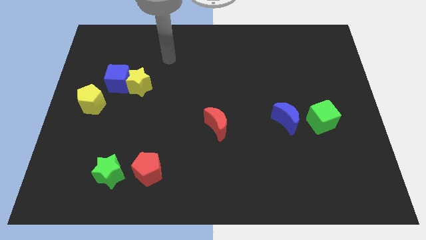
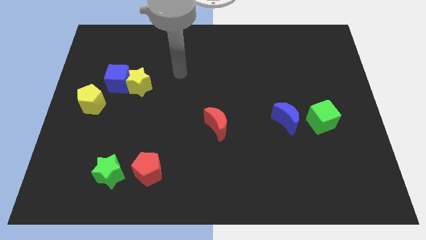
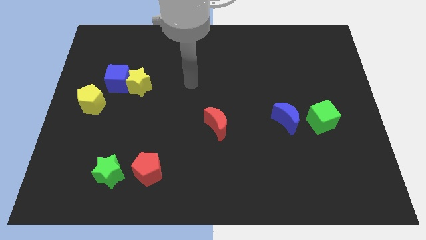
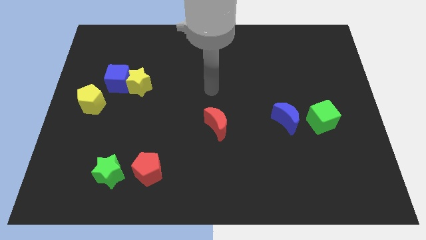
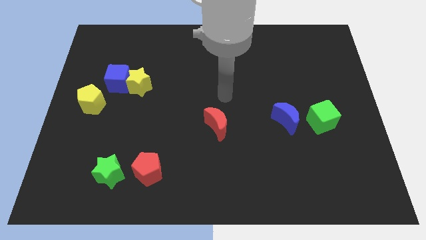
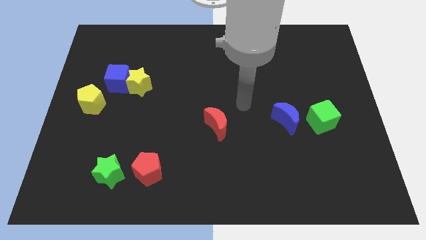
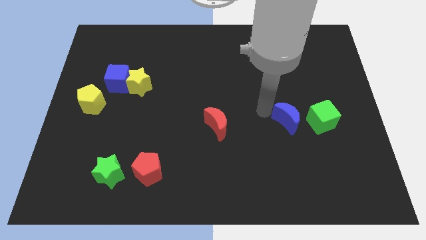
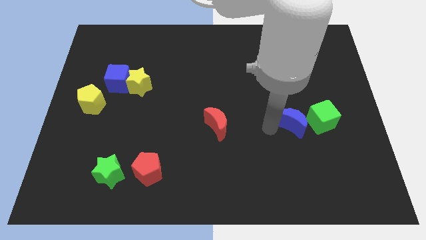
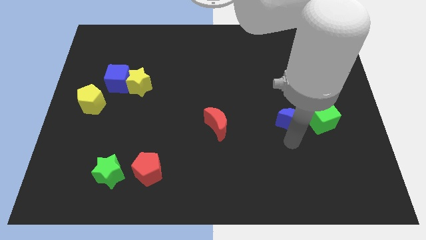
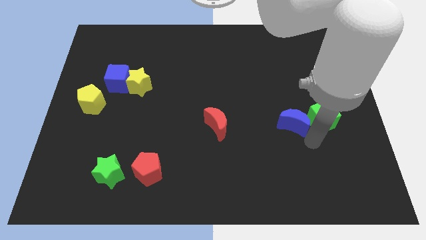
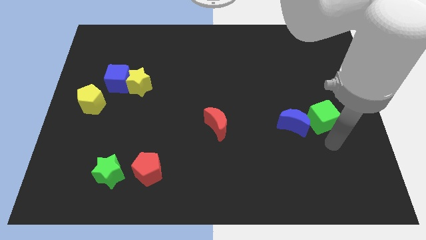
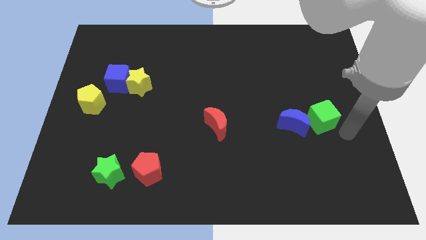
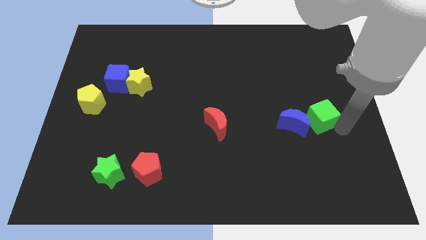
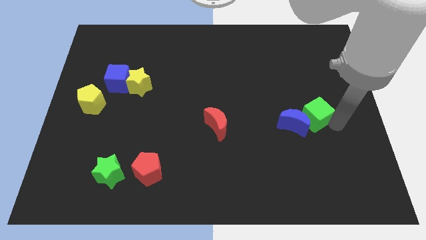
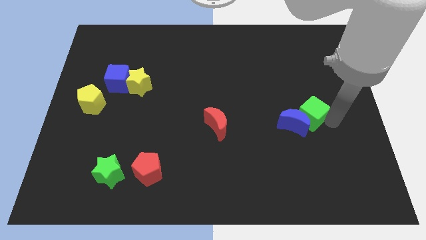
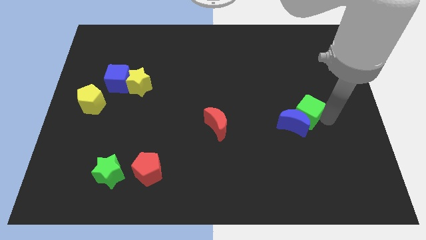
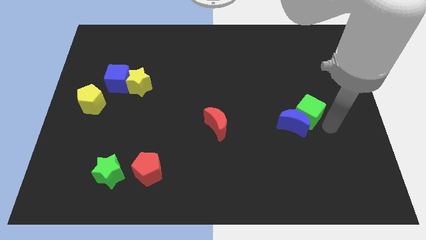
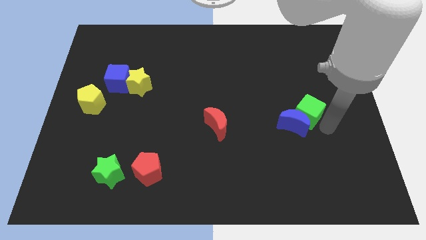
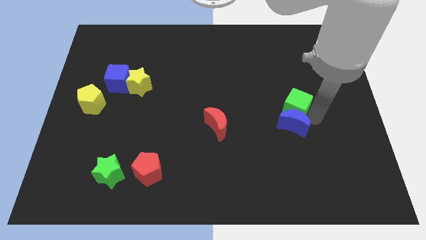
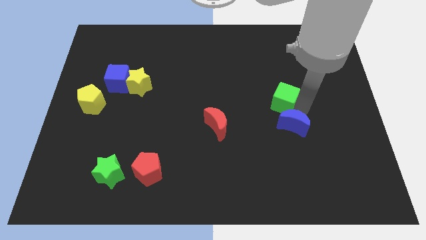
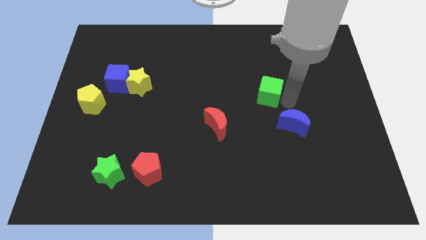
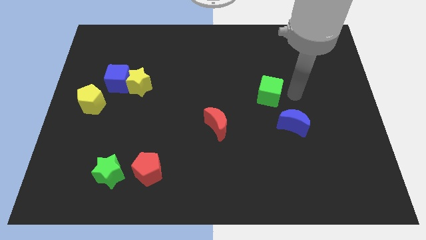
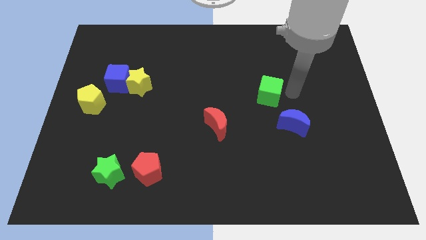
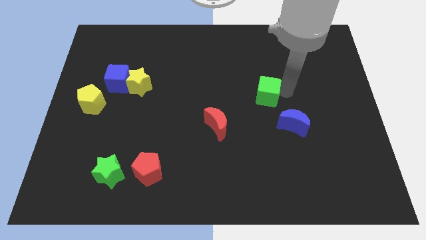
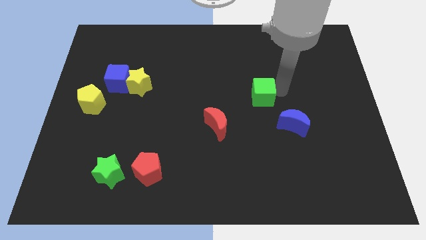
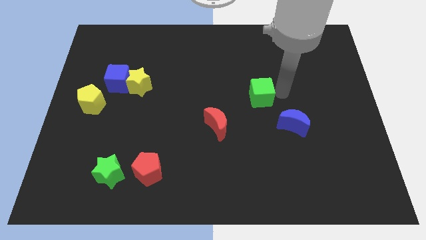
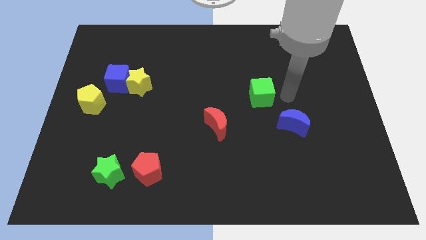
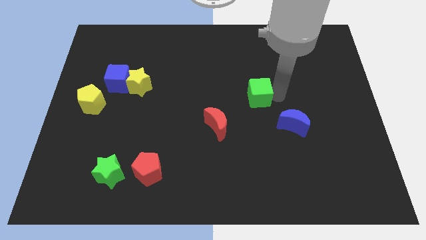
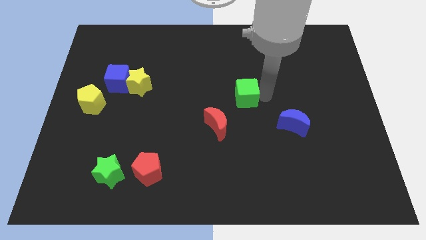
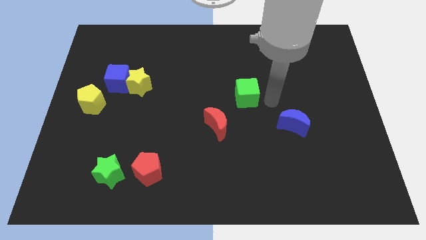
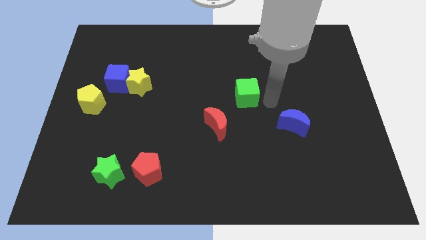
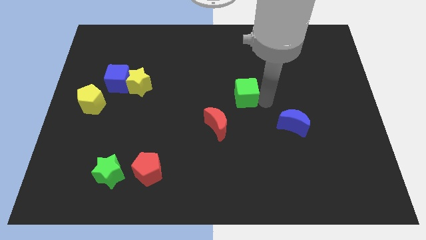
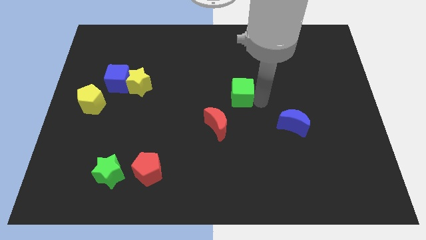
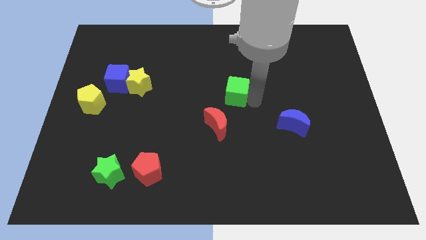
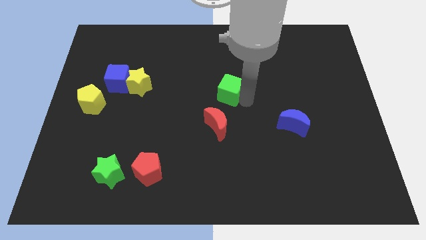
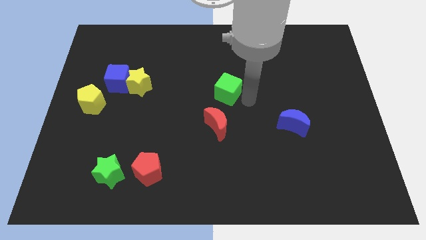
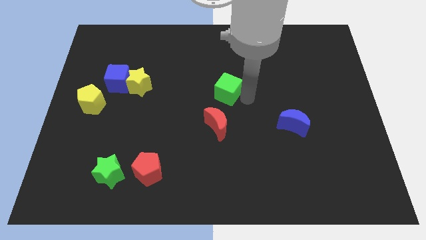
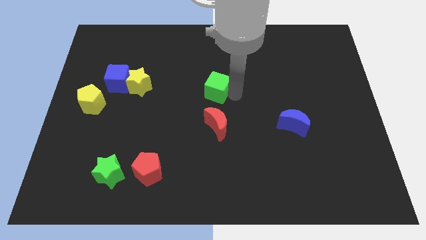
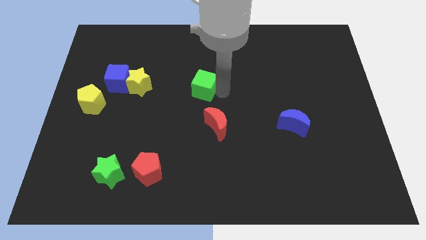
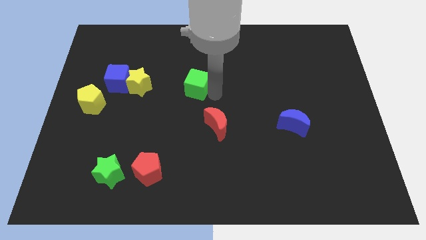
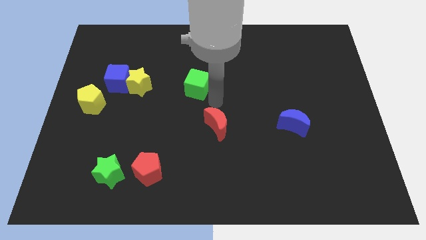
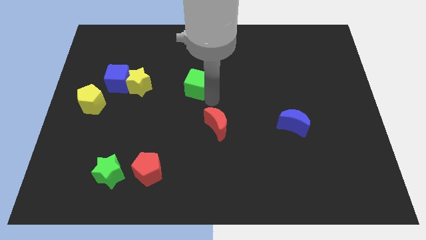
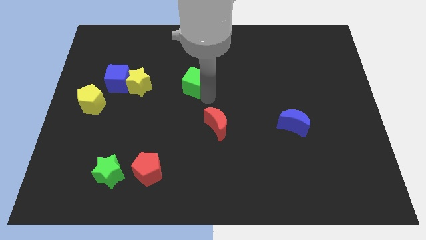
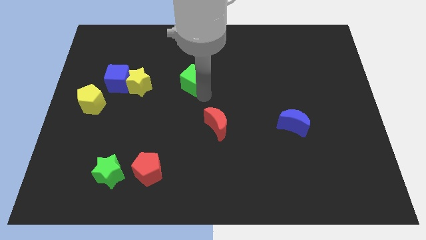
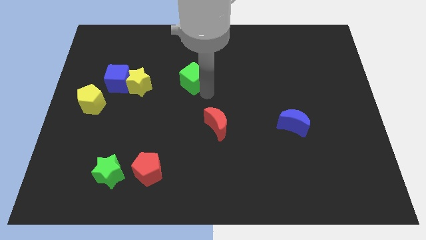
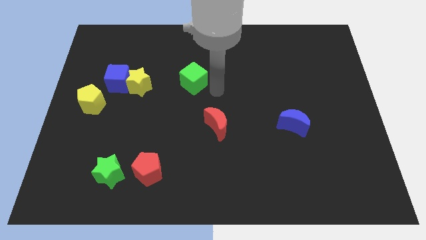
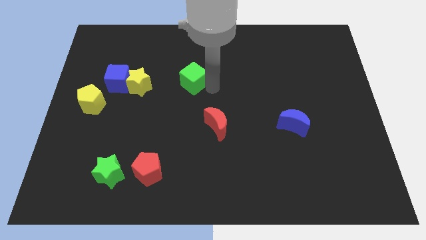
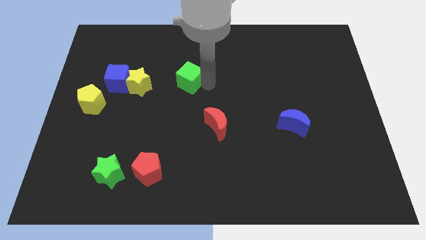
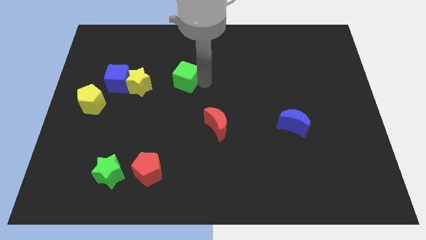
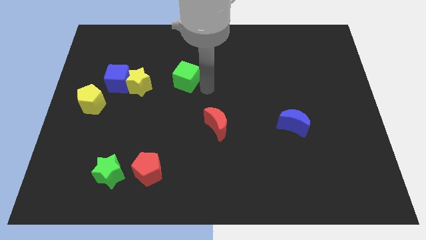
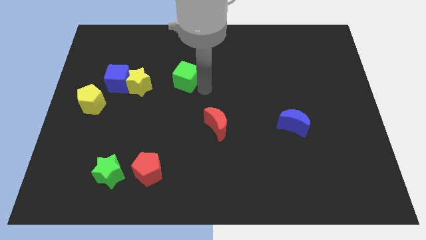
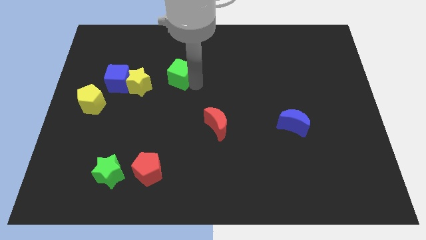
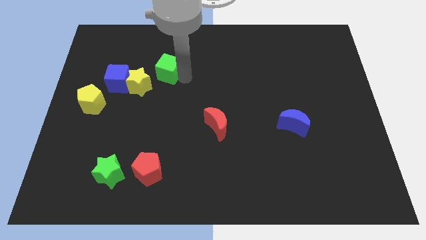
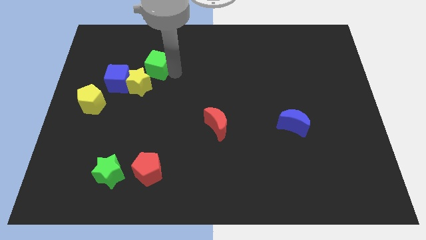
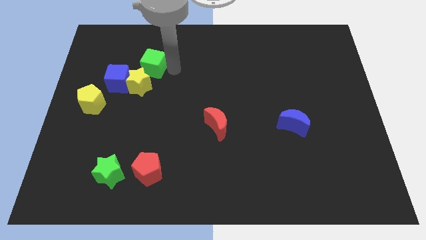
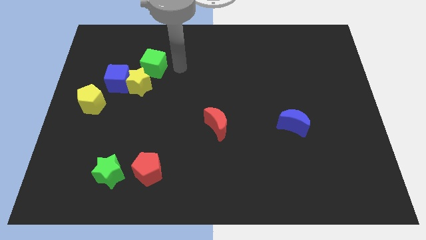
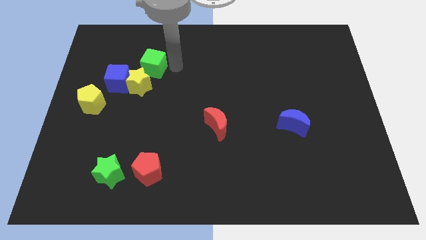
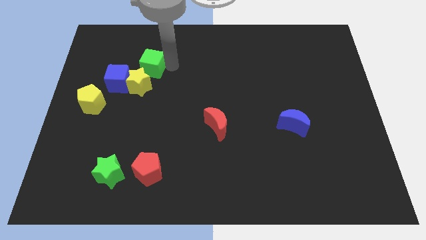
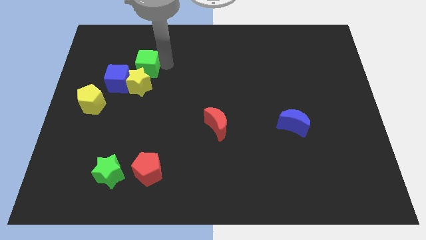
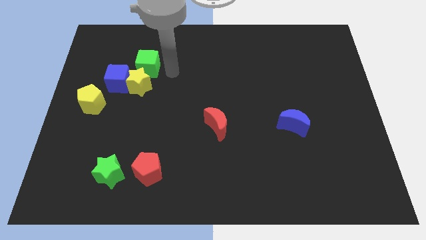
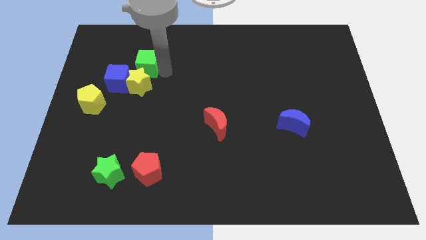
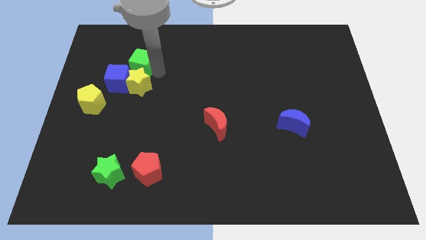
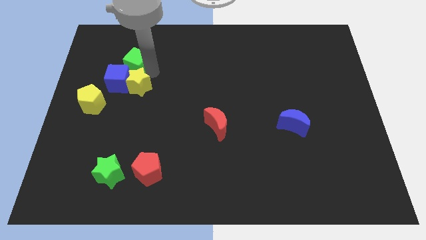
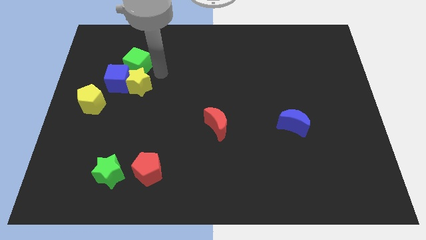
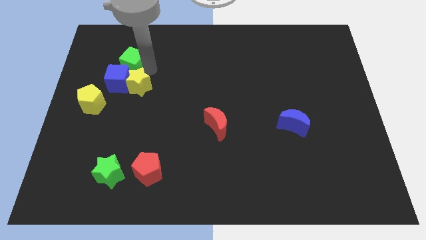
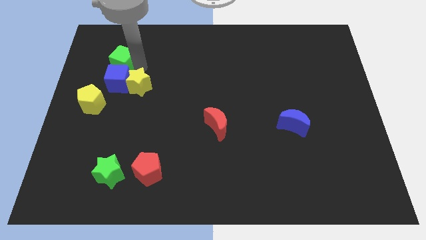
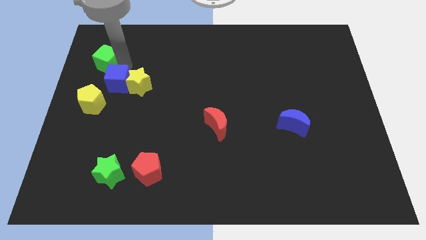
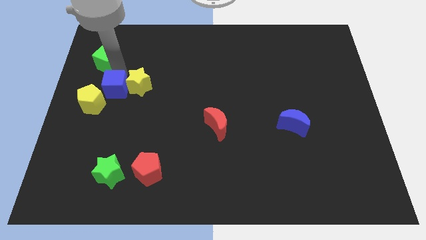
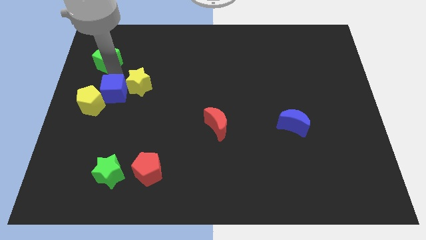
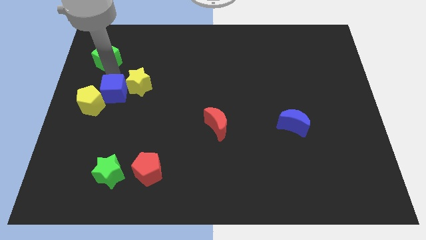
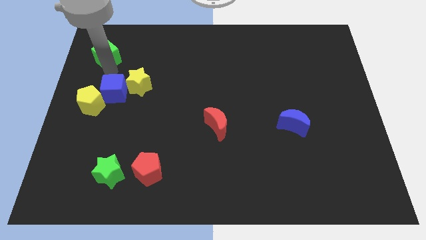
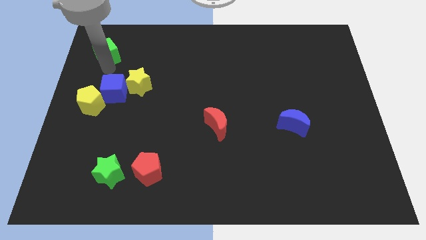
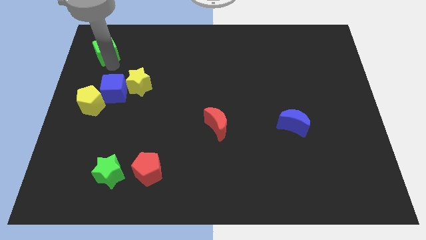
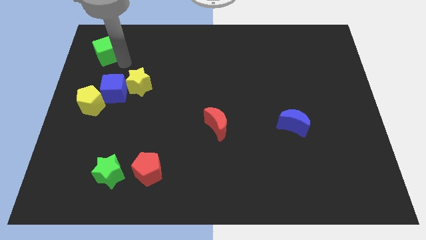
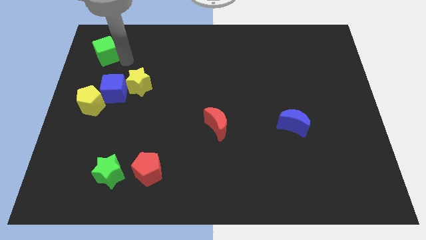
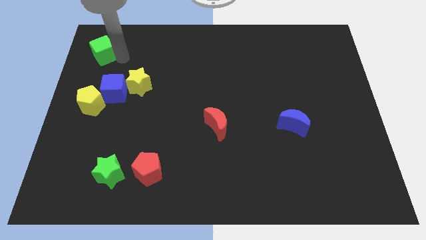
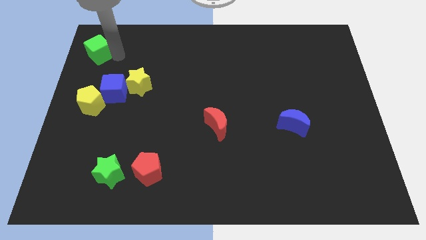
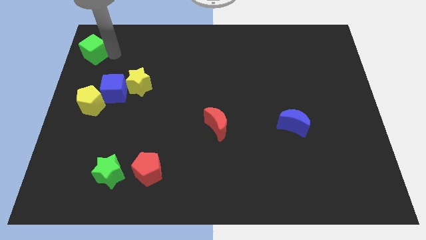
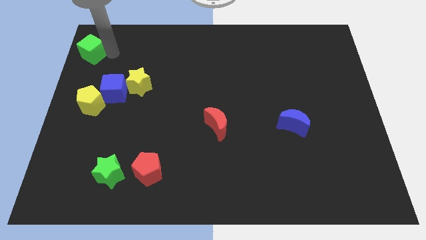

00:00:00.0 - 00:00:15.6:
move the green cube to the upper left corner
